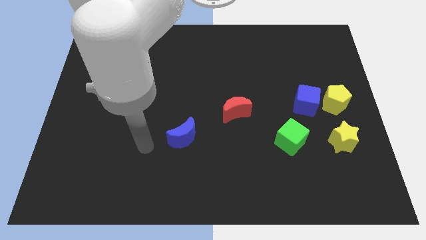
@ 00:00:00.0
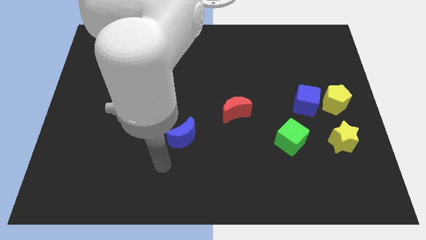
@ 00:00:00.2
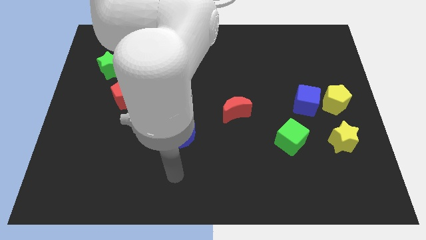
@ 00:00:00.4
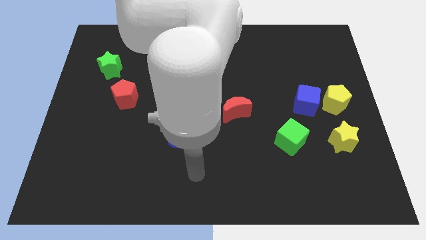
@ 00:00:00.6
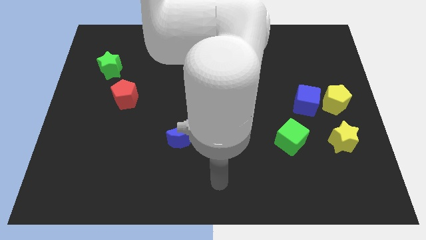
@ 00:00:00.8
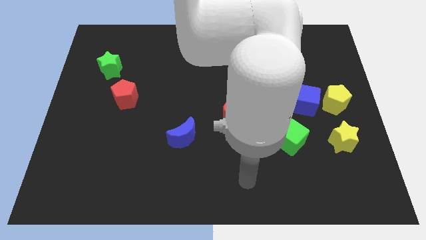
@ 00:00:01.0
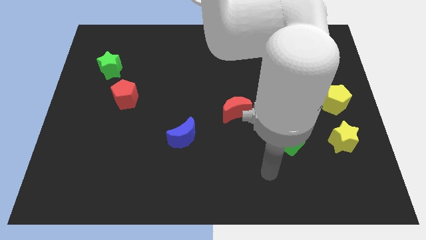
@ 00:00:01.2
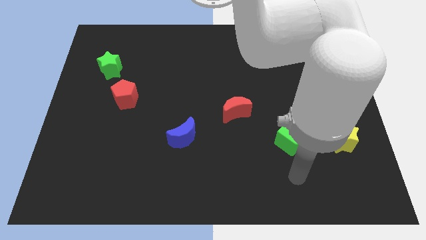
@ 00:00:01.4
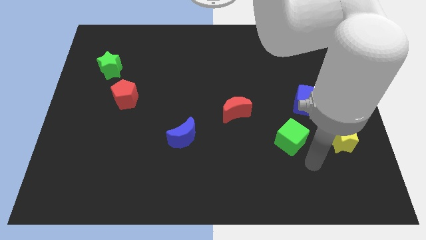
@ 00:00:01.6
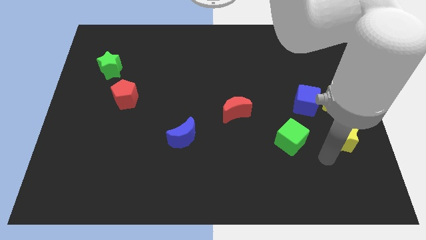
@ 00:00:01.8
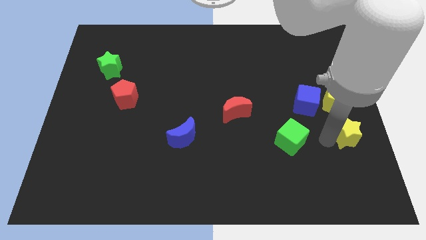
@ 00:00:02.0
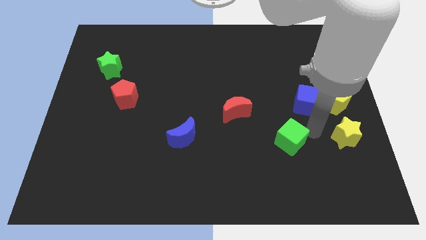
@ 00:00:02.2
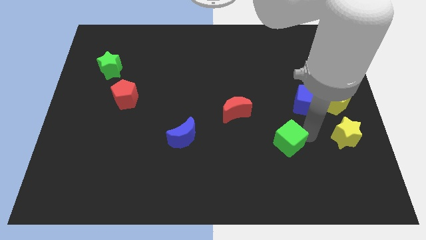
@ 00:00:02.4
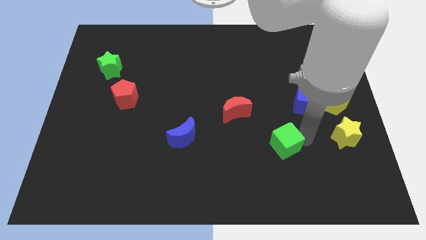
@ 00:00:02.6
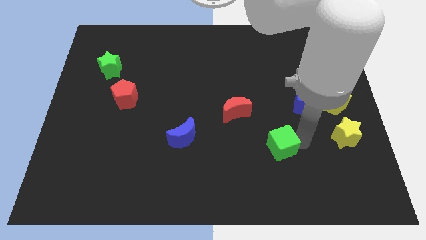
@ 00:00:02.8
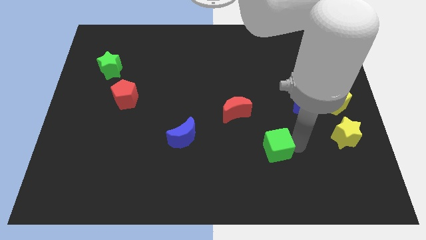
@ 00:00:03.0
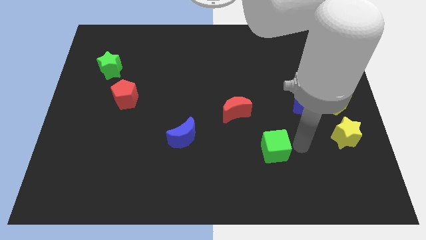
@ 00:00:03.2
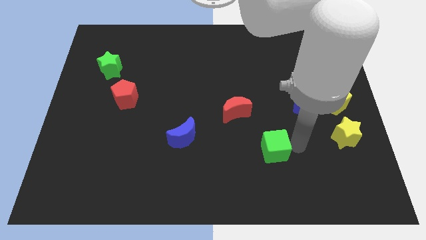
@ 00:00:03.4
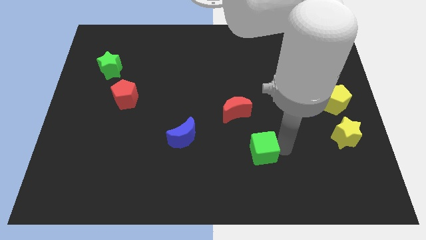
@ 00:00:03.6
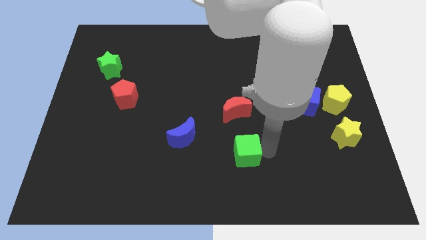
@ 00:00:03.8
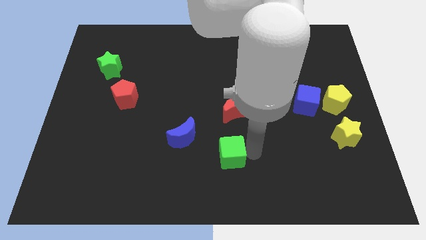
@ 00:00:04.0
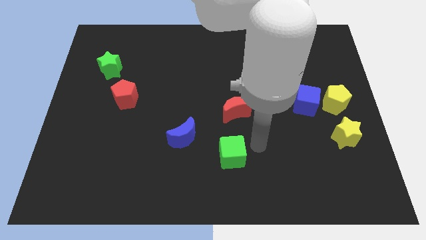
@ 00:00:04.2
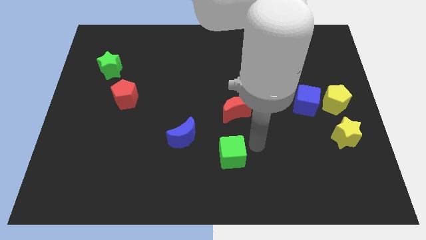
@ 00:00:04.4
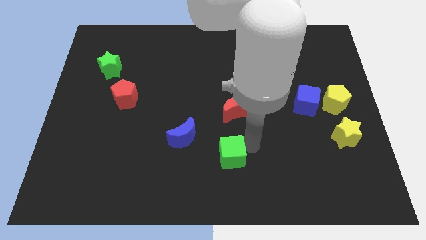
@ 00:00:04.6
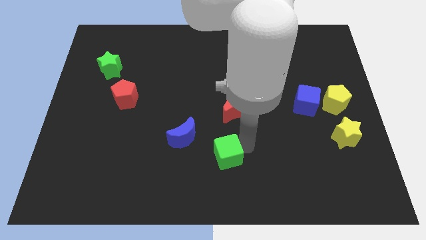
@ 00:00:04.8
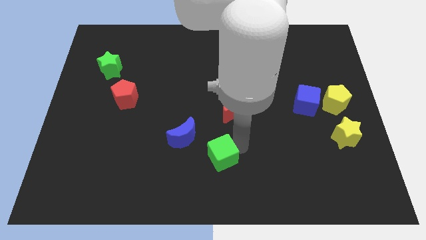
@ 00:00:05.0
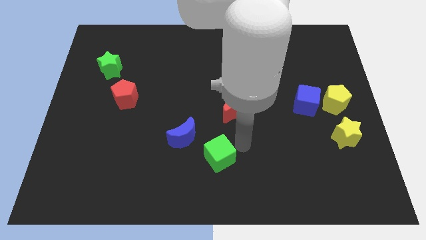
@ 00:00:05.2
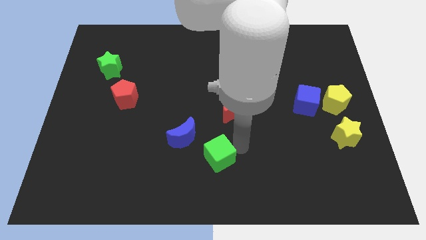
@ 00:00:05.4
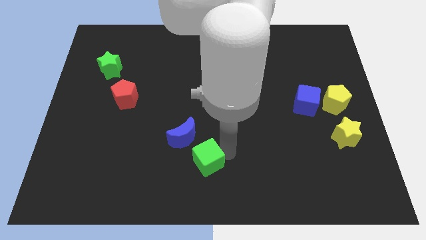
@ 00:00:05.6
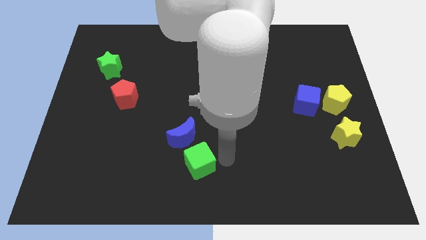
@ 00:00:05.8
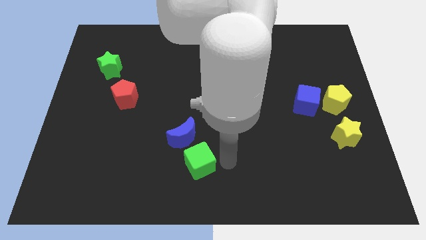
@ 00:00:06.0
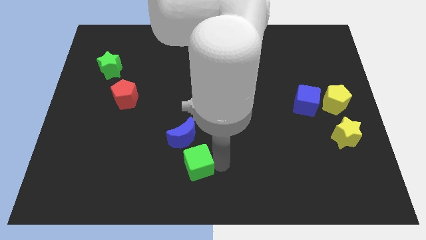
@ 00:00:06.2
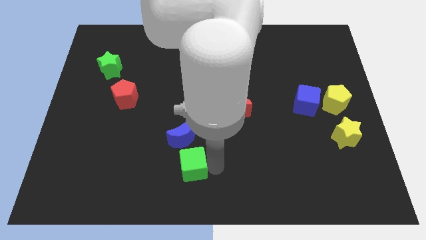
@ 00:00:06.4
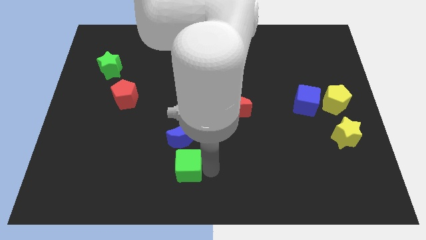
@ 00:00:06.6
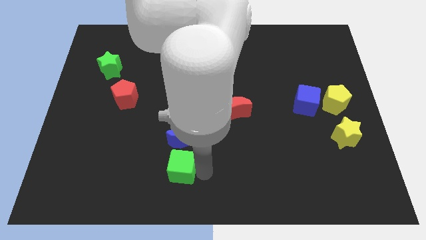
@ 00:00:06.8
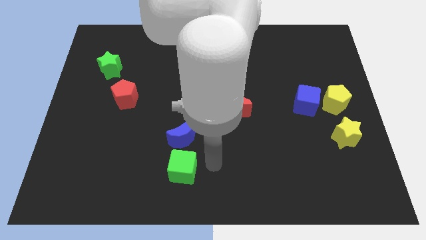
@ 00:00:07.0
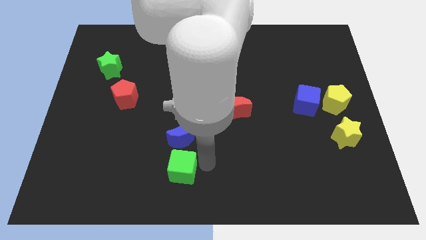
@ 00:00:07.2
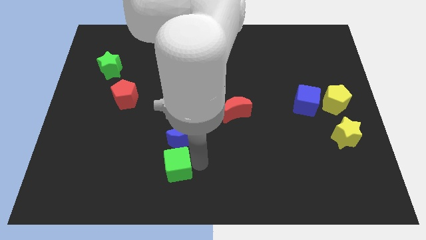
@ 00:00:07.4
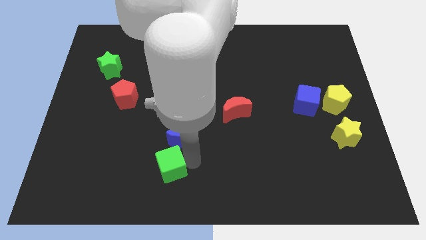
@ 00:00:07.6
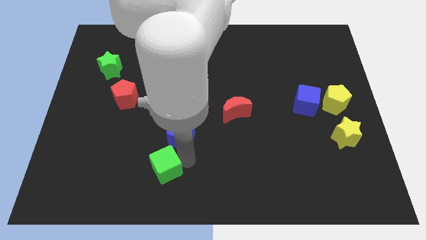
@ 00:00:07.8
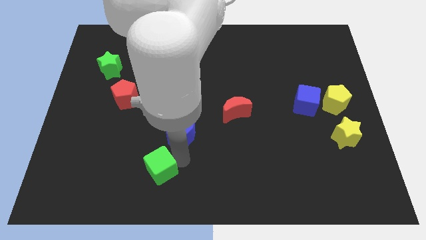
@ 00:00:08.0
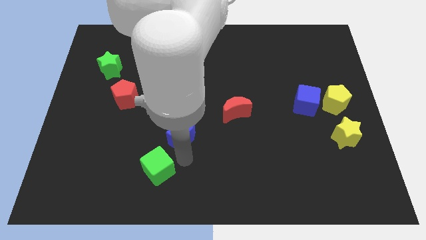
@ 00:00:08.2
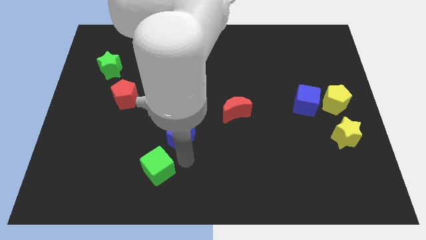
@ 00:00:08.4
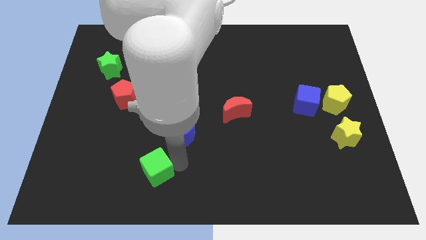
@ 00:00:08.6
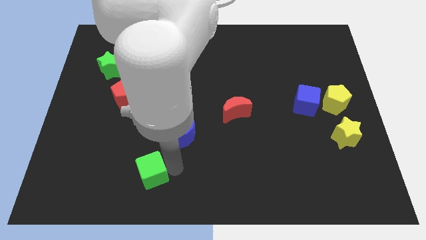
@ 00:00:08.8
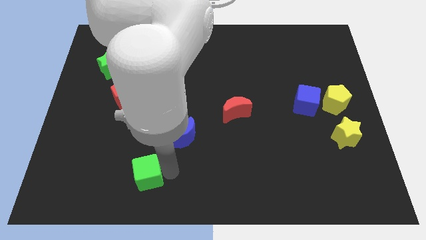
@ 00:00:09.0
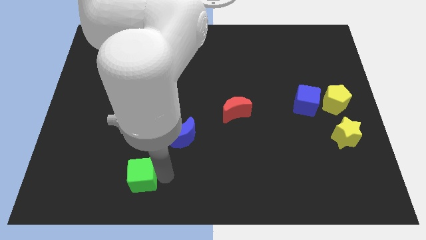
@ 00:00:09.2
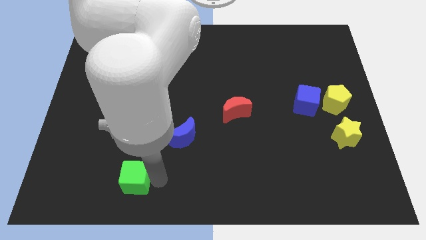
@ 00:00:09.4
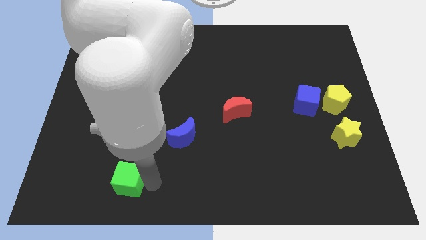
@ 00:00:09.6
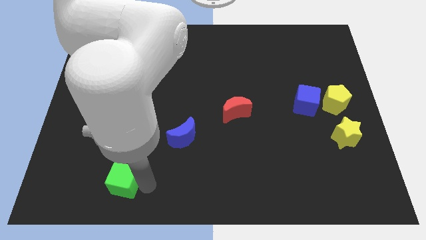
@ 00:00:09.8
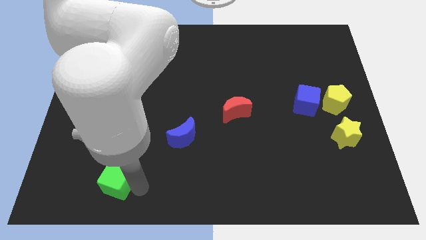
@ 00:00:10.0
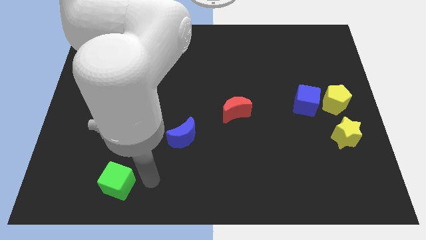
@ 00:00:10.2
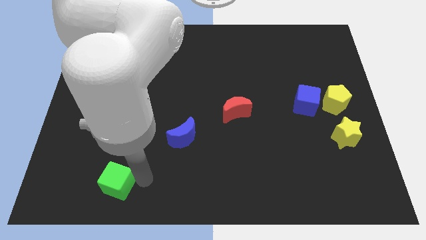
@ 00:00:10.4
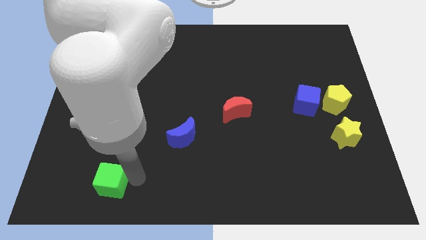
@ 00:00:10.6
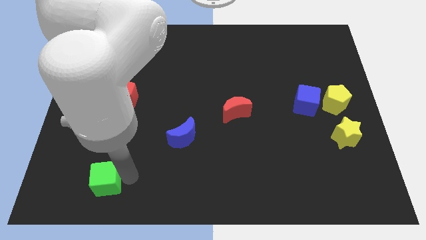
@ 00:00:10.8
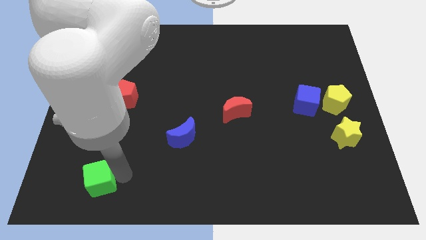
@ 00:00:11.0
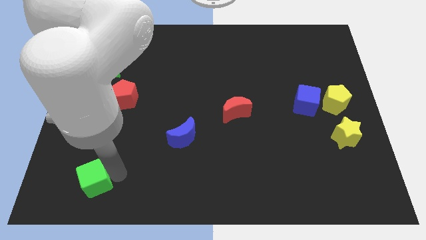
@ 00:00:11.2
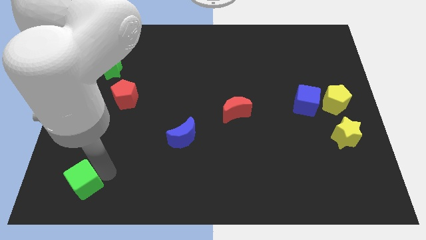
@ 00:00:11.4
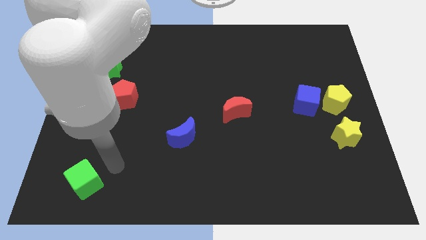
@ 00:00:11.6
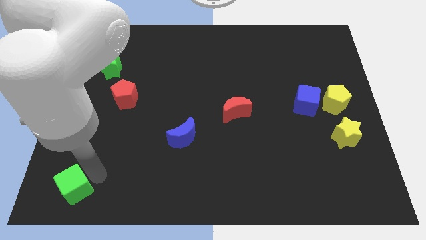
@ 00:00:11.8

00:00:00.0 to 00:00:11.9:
push the green cube to the lower left corner

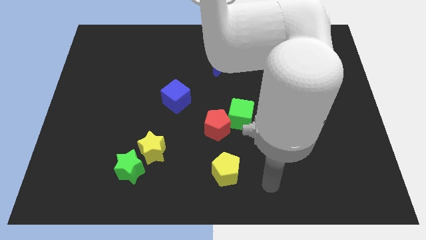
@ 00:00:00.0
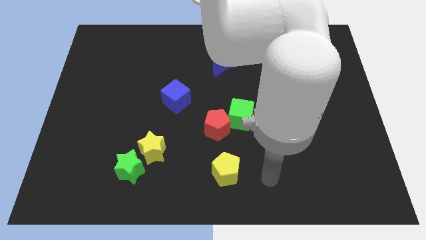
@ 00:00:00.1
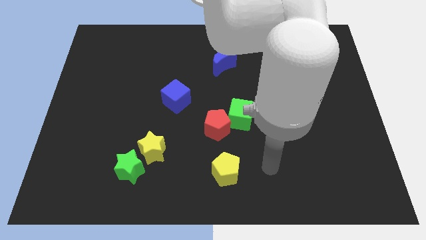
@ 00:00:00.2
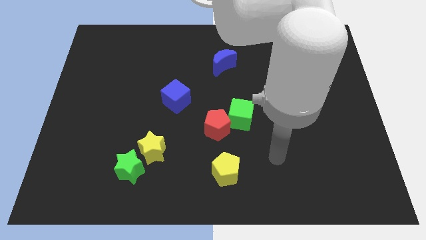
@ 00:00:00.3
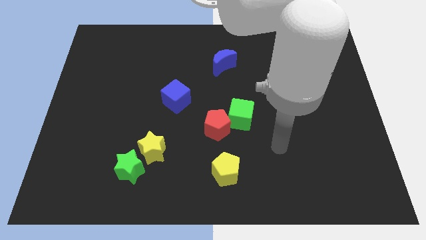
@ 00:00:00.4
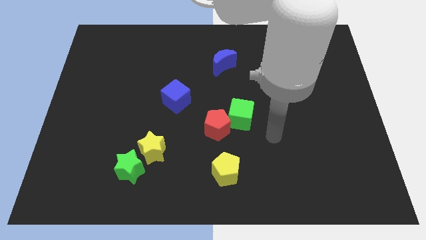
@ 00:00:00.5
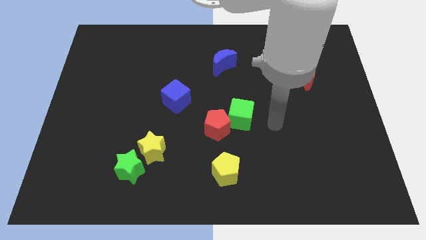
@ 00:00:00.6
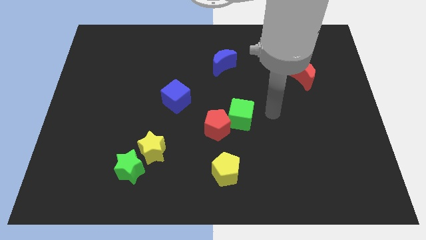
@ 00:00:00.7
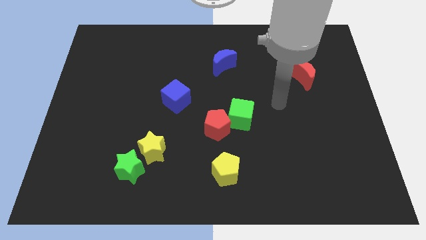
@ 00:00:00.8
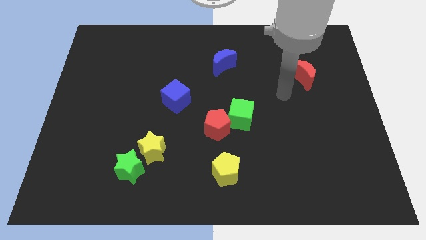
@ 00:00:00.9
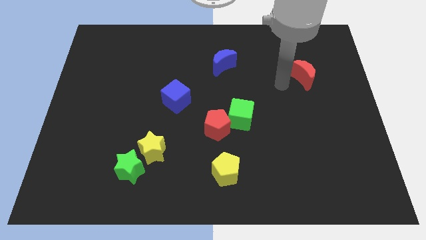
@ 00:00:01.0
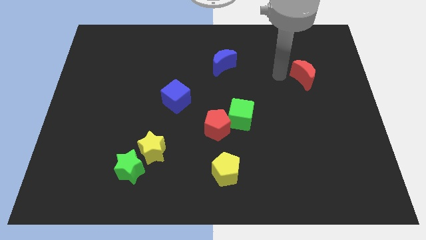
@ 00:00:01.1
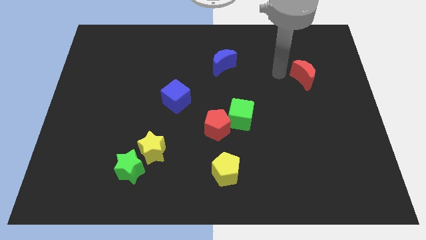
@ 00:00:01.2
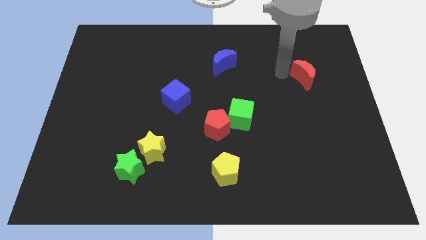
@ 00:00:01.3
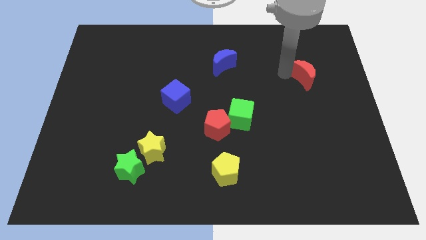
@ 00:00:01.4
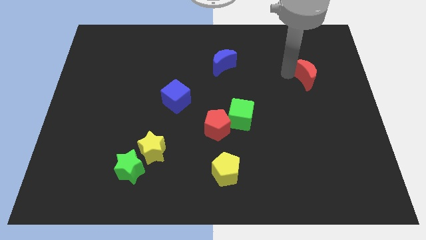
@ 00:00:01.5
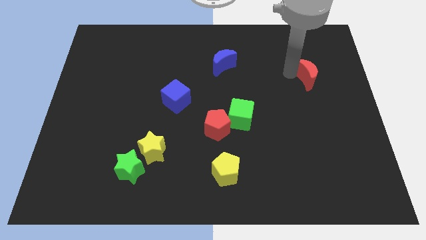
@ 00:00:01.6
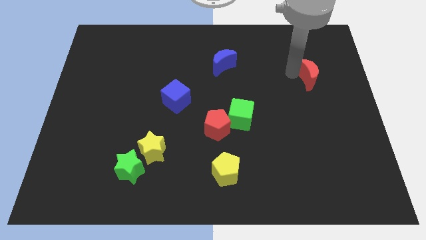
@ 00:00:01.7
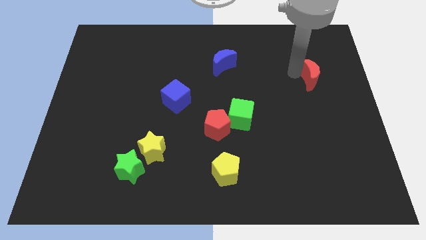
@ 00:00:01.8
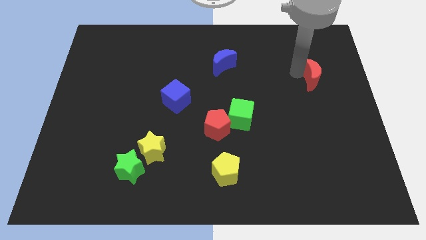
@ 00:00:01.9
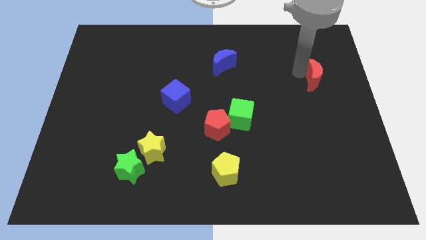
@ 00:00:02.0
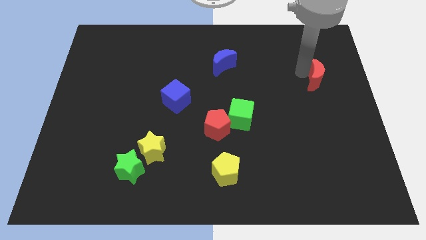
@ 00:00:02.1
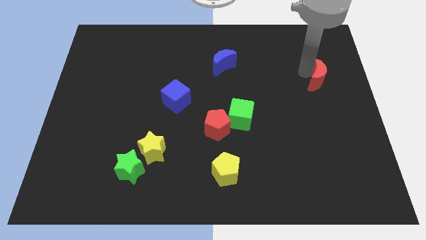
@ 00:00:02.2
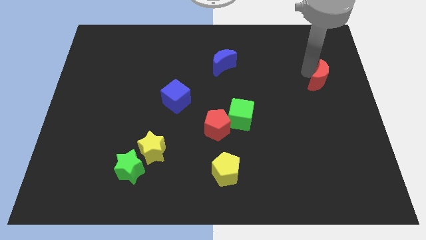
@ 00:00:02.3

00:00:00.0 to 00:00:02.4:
slide the red moon to the center right
